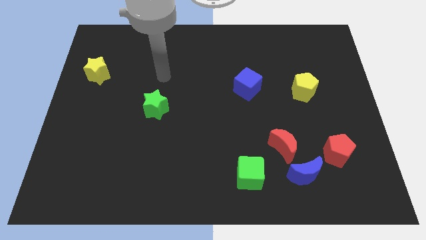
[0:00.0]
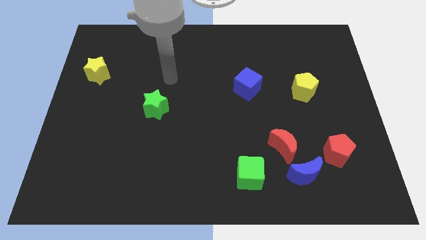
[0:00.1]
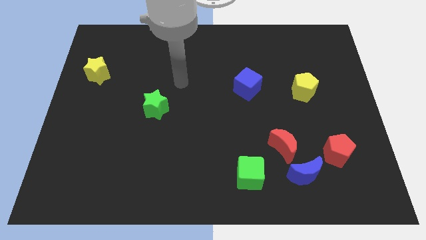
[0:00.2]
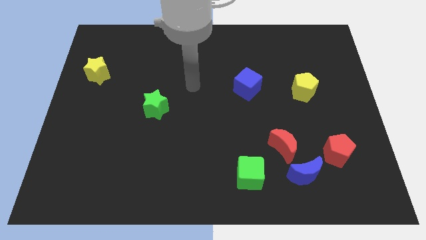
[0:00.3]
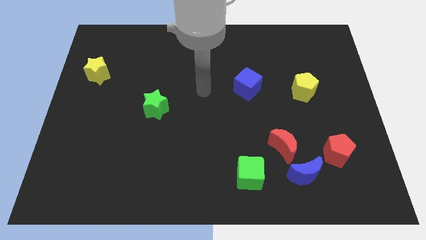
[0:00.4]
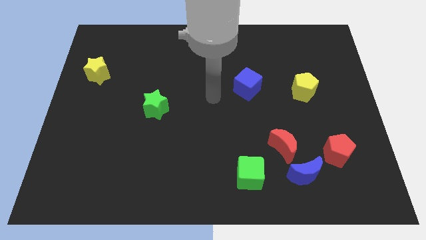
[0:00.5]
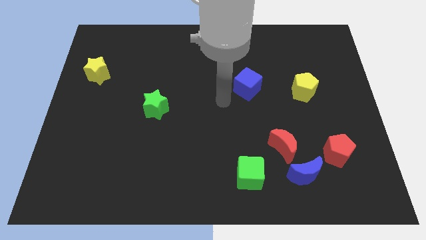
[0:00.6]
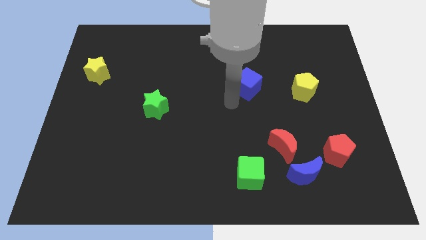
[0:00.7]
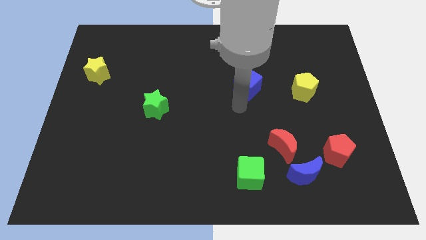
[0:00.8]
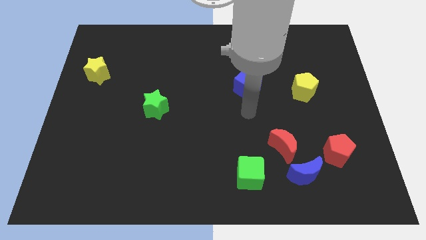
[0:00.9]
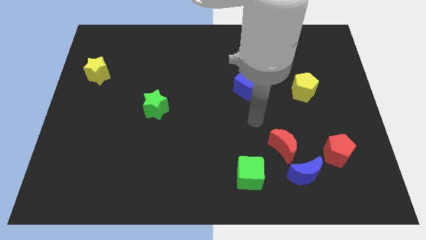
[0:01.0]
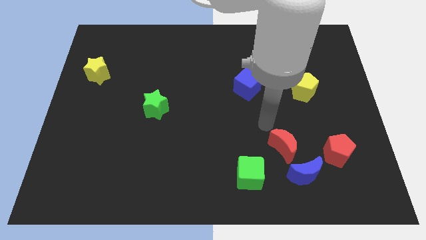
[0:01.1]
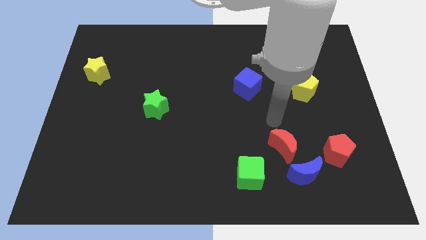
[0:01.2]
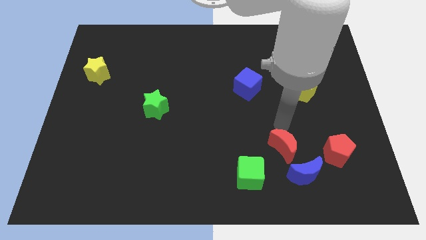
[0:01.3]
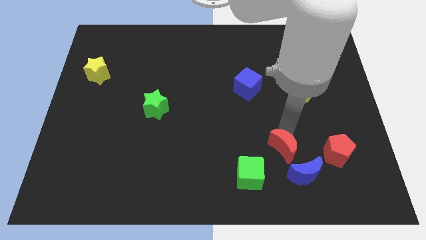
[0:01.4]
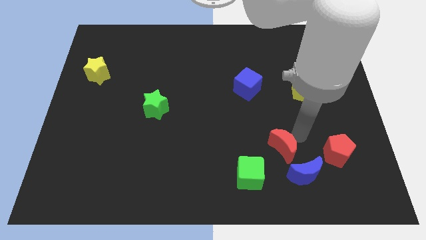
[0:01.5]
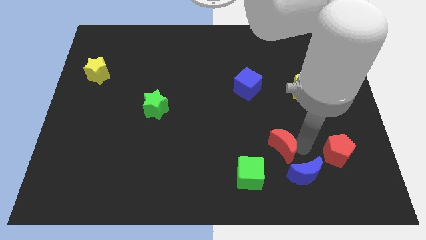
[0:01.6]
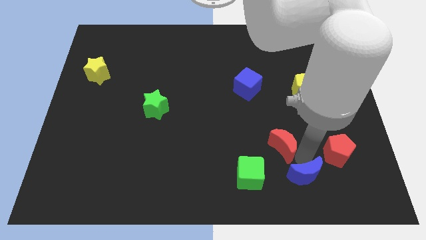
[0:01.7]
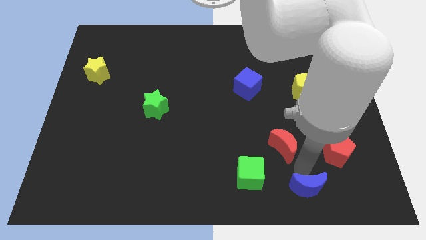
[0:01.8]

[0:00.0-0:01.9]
pull the red moon apart from the blue moon

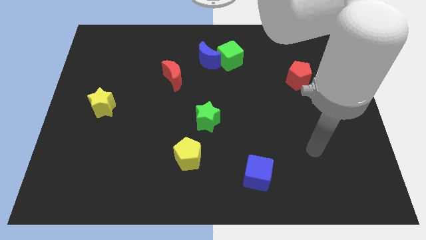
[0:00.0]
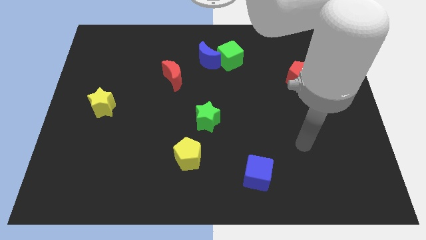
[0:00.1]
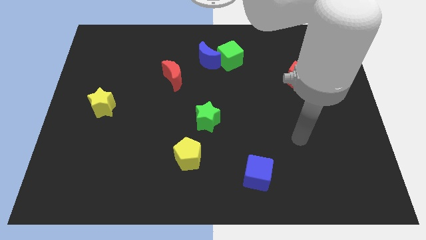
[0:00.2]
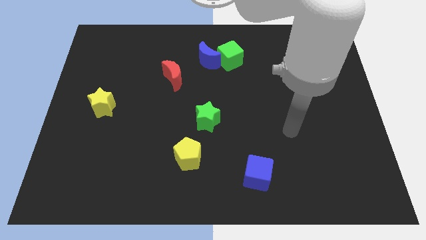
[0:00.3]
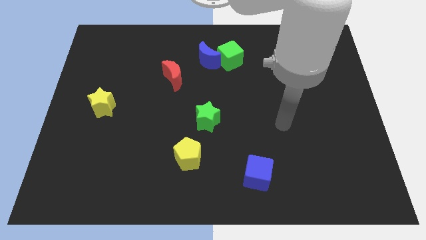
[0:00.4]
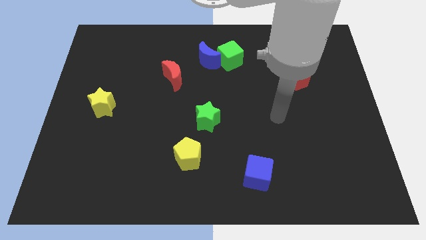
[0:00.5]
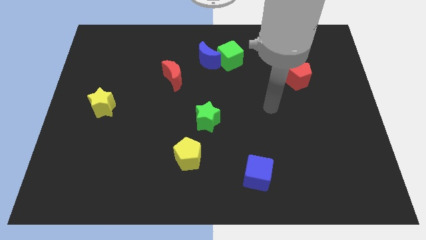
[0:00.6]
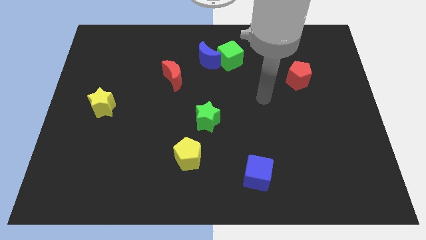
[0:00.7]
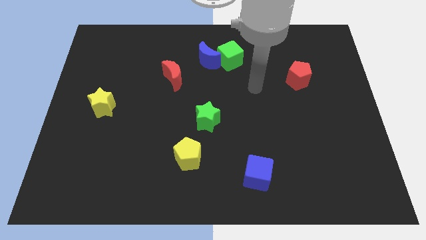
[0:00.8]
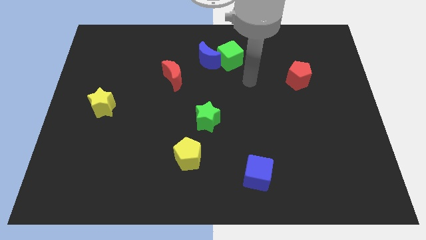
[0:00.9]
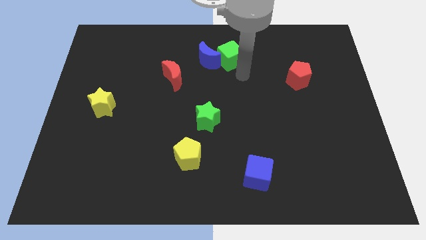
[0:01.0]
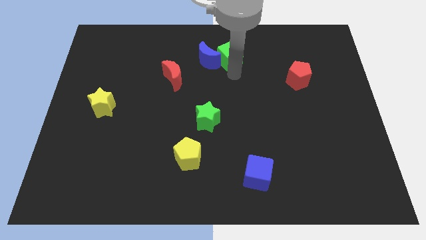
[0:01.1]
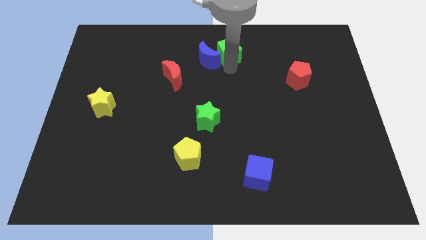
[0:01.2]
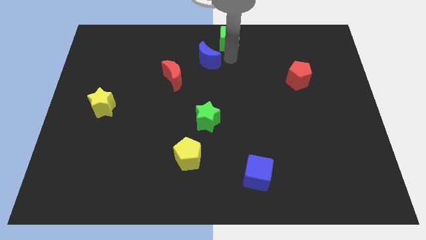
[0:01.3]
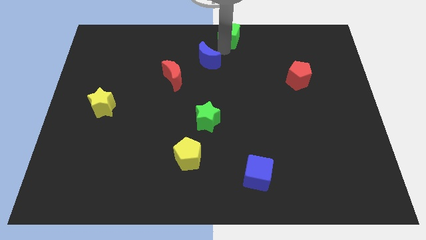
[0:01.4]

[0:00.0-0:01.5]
move the blue moon away from the green cube

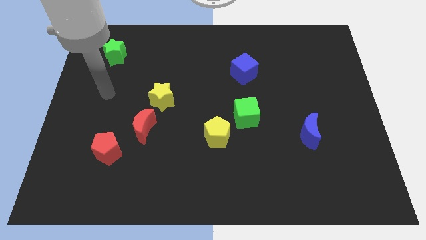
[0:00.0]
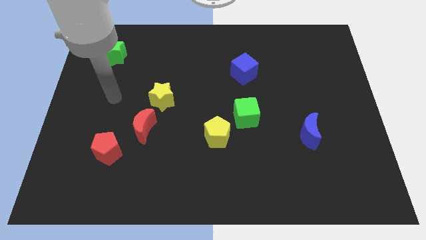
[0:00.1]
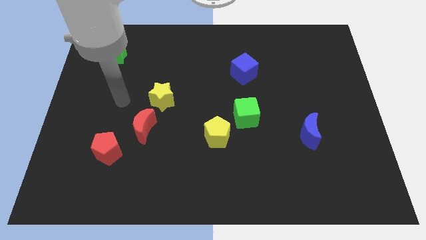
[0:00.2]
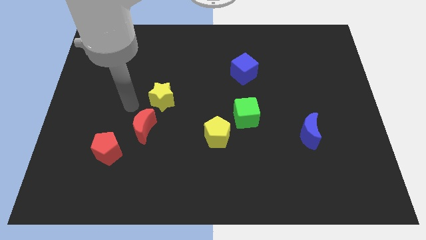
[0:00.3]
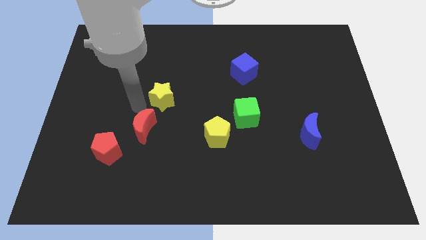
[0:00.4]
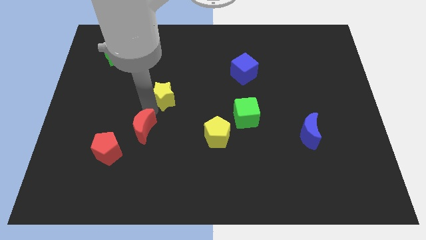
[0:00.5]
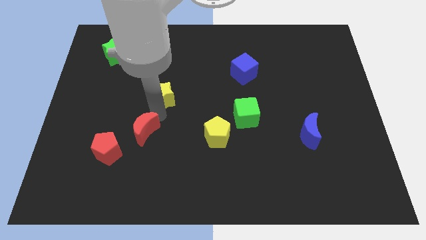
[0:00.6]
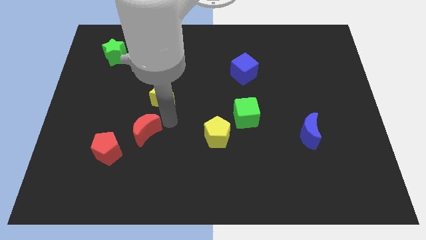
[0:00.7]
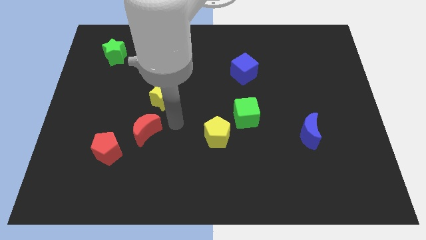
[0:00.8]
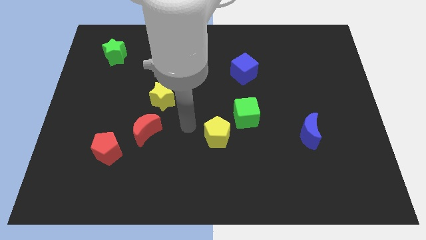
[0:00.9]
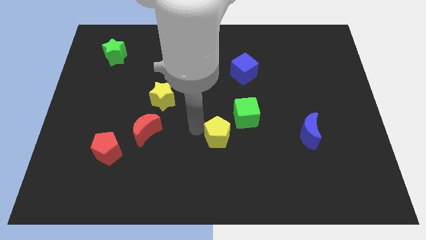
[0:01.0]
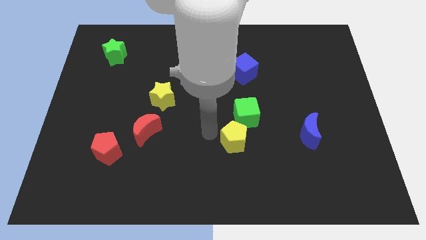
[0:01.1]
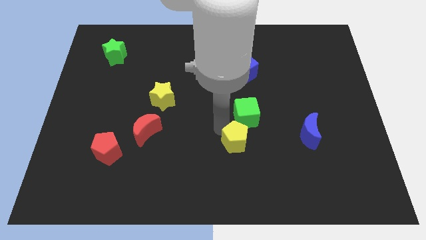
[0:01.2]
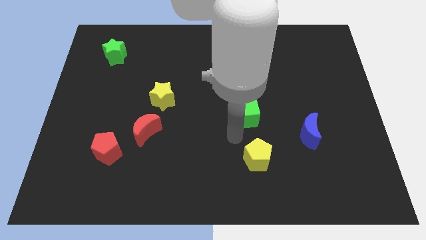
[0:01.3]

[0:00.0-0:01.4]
pull the green cube apart from the yellow pentagon

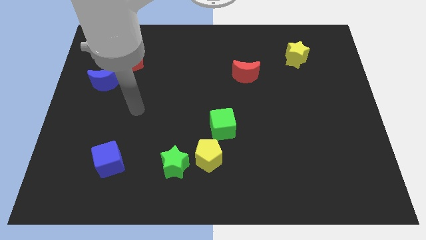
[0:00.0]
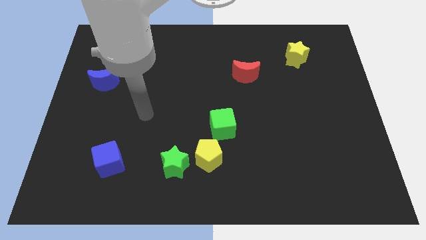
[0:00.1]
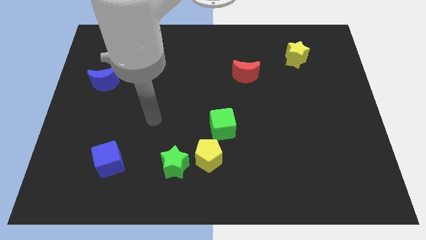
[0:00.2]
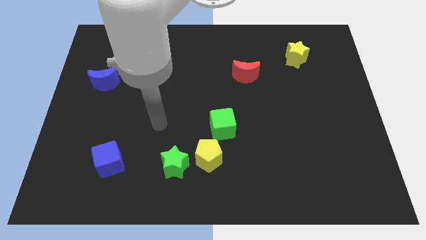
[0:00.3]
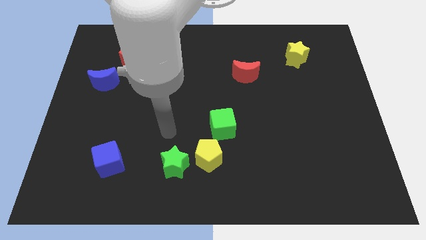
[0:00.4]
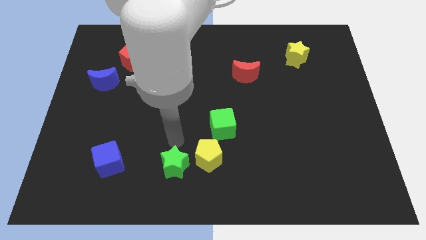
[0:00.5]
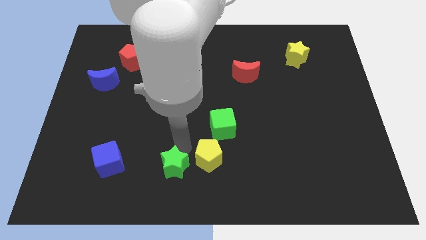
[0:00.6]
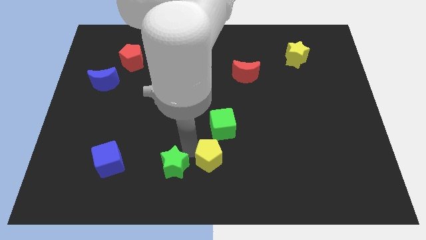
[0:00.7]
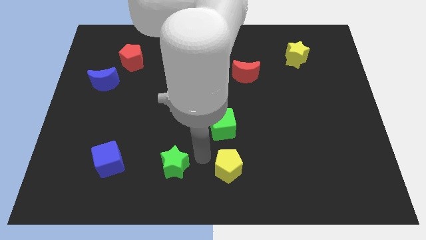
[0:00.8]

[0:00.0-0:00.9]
move the green star away from the yellow pentagon

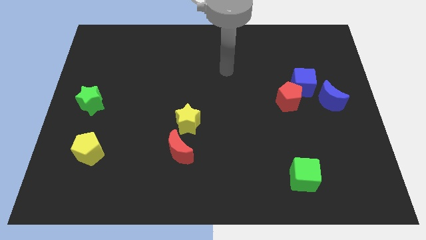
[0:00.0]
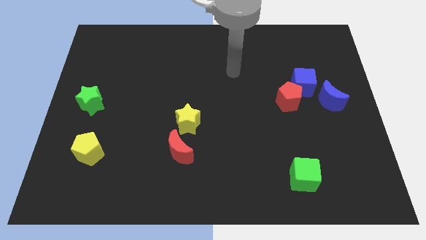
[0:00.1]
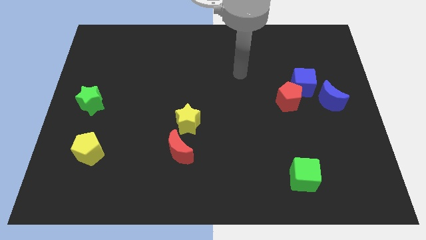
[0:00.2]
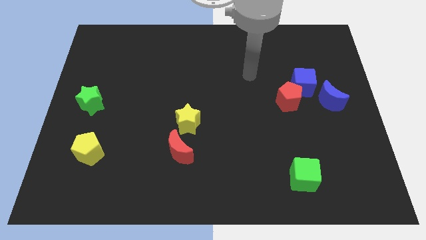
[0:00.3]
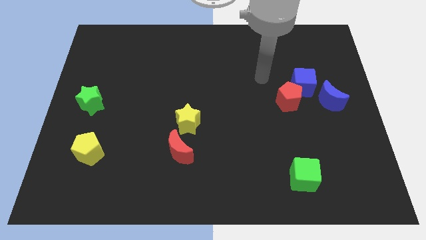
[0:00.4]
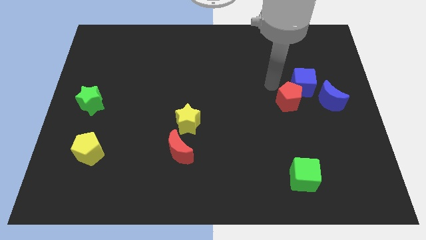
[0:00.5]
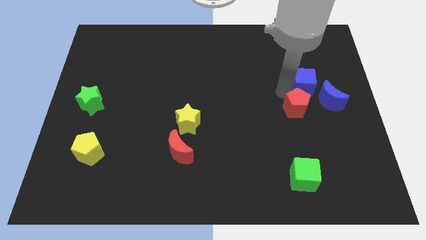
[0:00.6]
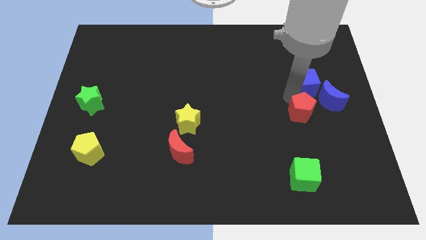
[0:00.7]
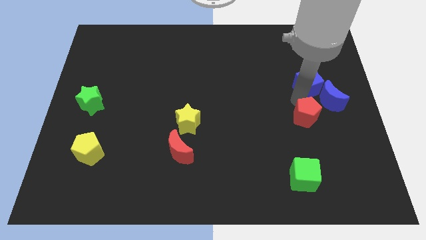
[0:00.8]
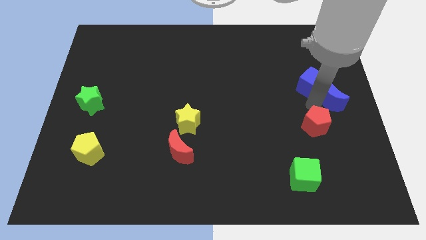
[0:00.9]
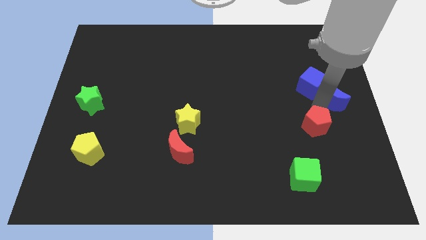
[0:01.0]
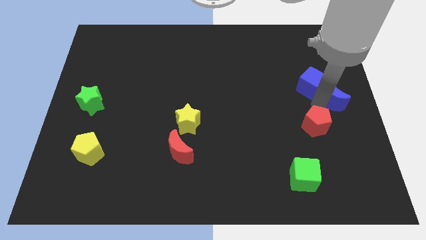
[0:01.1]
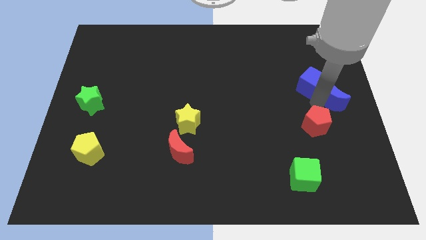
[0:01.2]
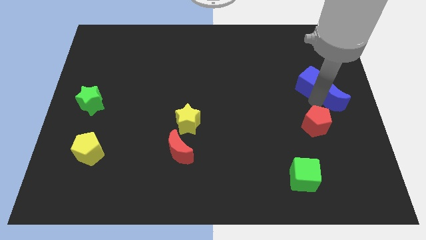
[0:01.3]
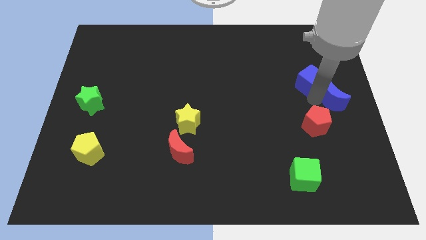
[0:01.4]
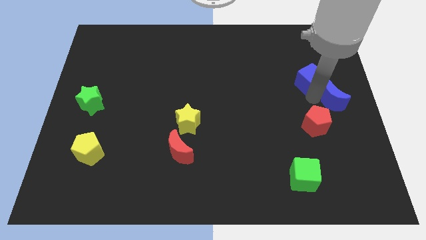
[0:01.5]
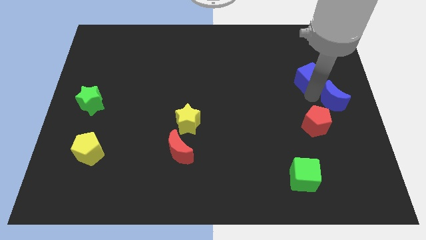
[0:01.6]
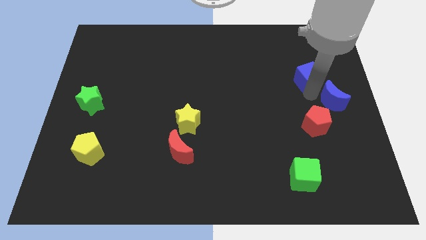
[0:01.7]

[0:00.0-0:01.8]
move the blue cube away from the red pentagon and blue moon

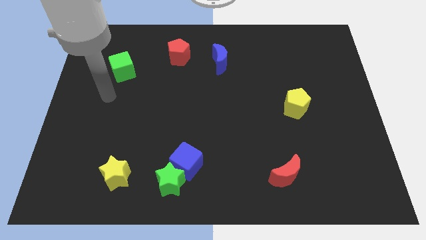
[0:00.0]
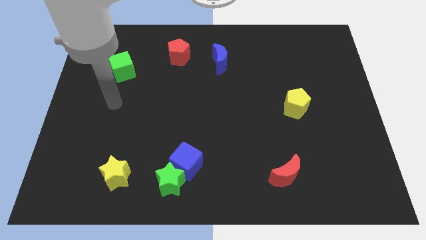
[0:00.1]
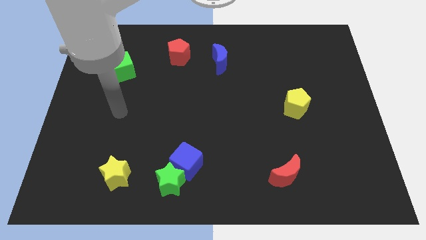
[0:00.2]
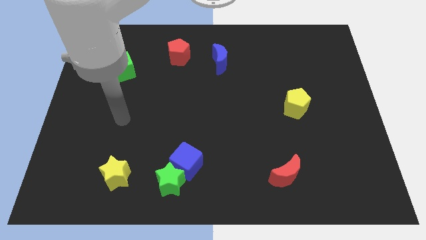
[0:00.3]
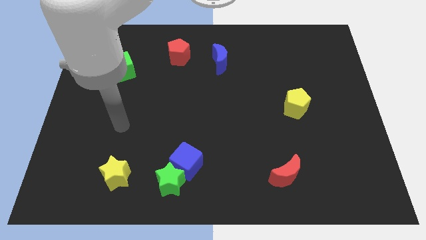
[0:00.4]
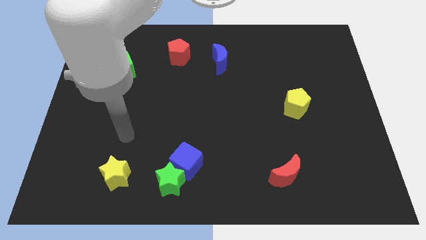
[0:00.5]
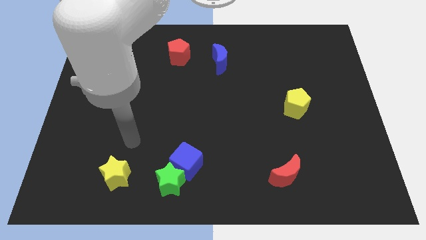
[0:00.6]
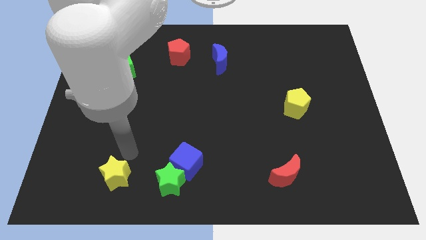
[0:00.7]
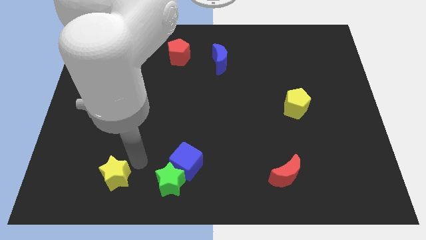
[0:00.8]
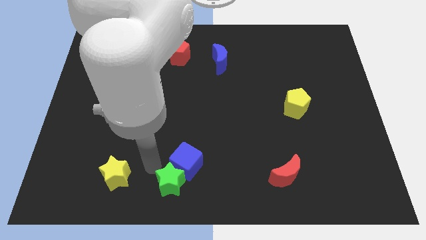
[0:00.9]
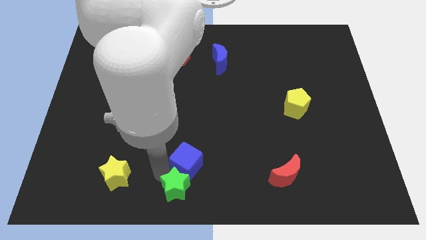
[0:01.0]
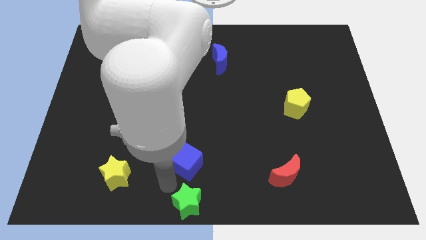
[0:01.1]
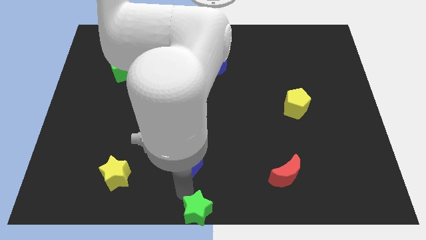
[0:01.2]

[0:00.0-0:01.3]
move the blue cube away from the green star

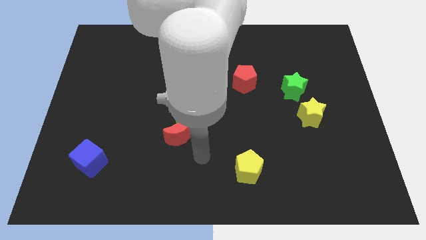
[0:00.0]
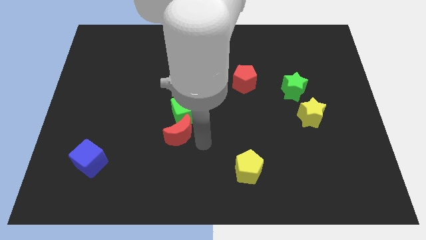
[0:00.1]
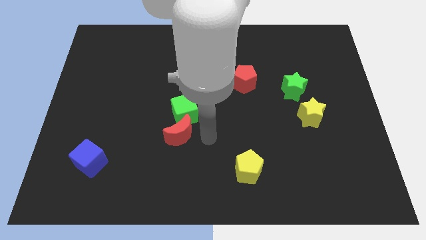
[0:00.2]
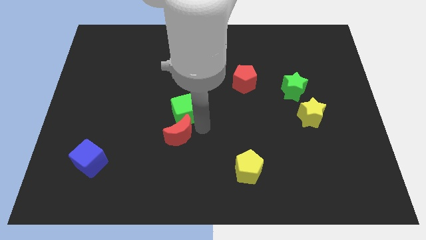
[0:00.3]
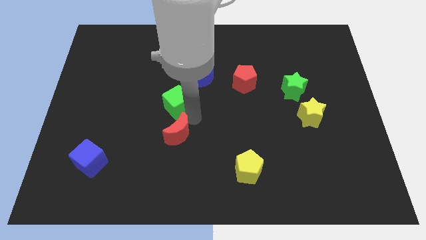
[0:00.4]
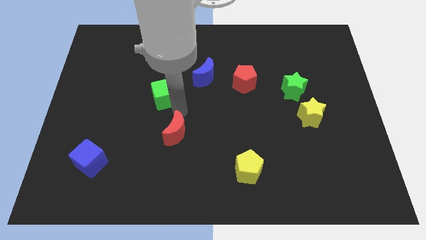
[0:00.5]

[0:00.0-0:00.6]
move the red moon away from the green cube
